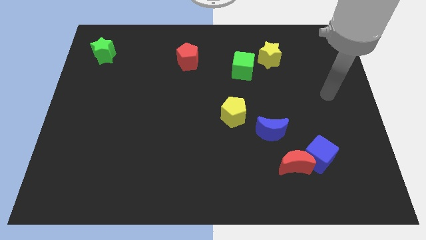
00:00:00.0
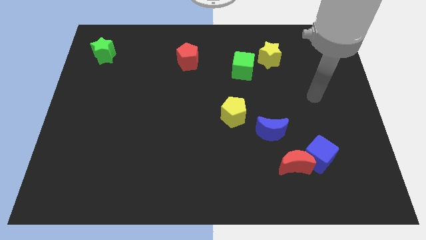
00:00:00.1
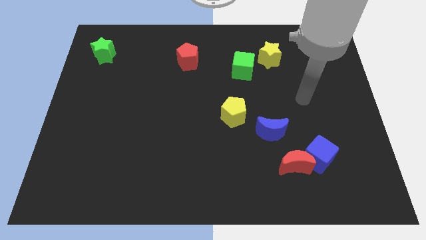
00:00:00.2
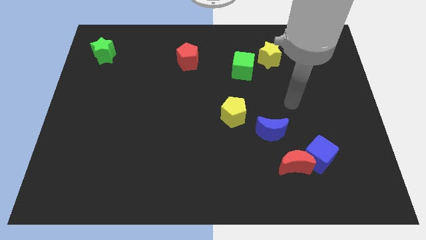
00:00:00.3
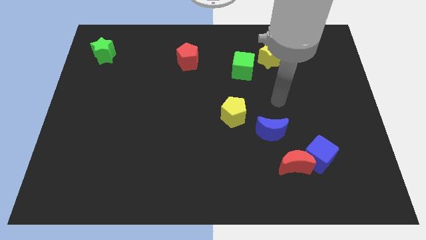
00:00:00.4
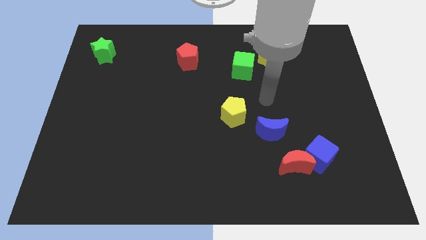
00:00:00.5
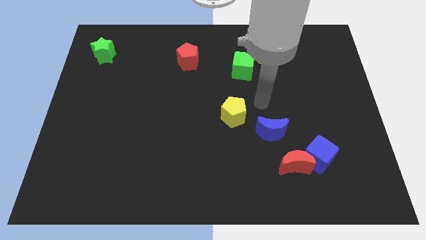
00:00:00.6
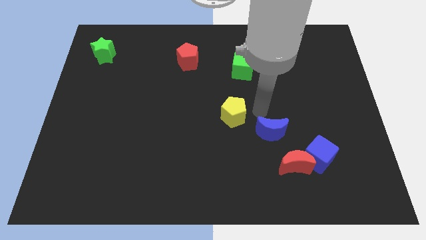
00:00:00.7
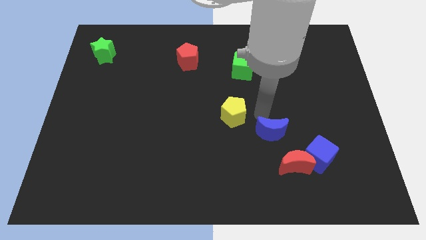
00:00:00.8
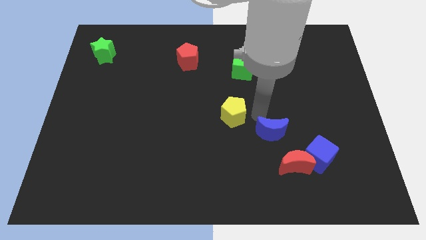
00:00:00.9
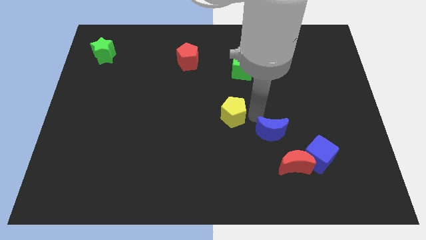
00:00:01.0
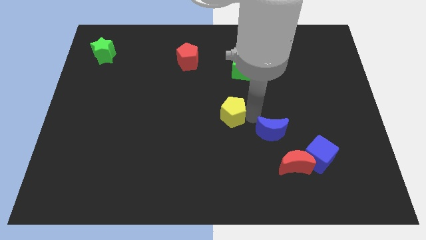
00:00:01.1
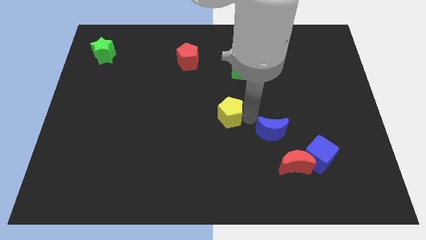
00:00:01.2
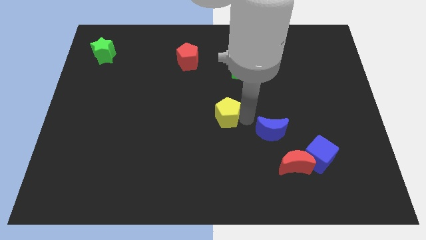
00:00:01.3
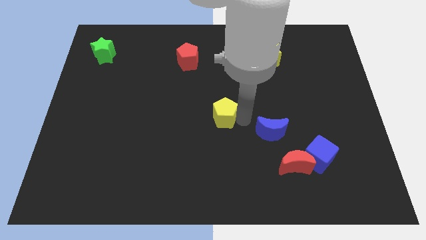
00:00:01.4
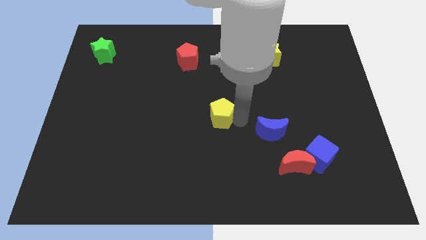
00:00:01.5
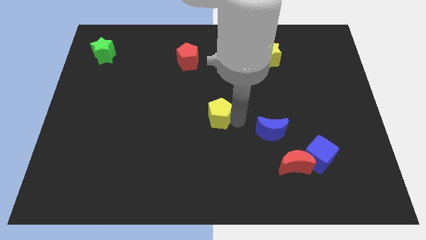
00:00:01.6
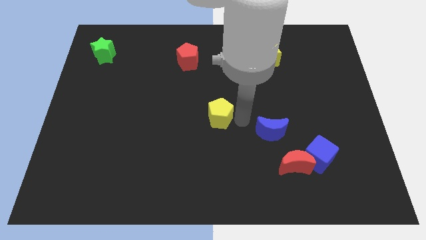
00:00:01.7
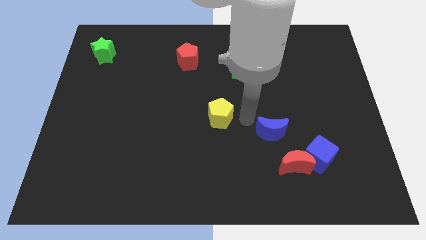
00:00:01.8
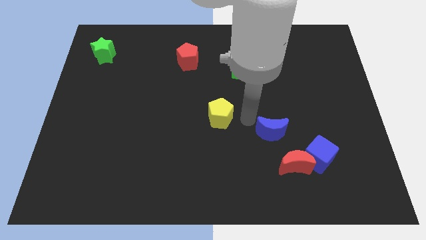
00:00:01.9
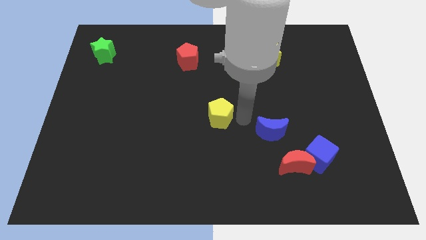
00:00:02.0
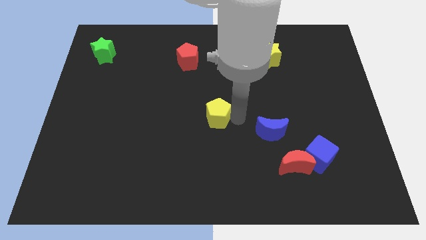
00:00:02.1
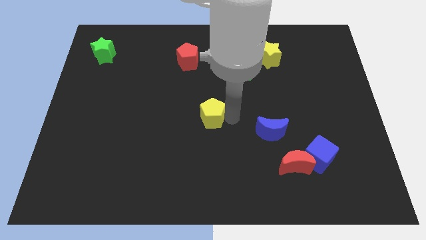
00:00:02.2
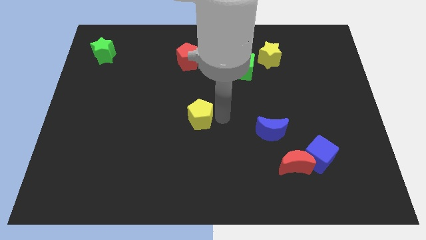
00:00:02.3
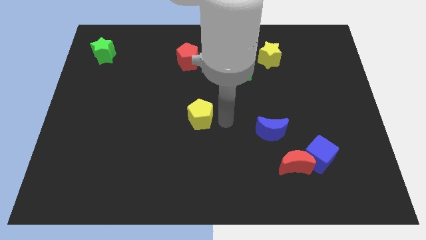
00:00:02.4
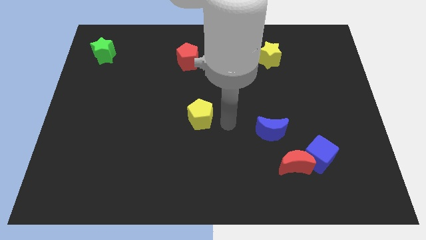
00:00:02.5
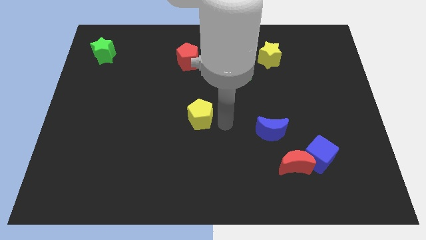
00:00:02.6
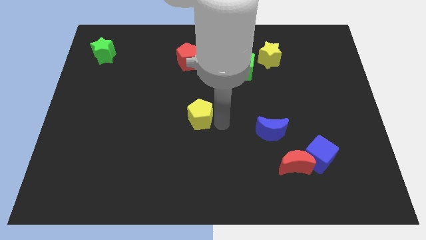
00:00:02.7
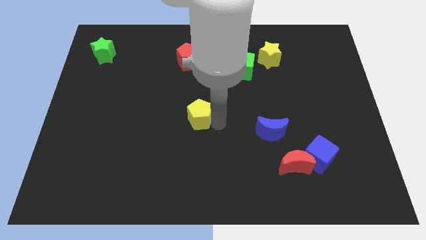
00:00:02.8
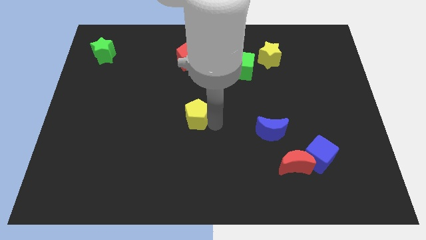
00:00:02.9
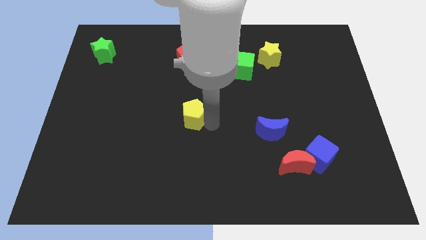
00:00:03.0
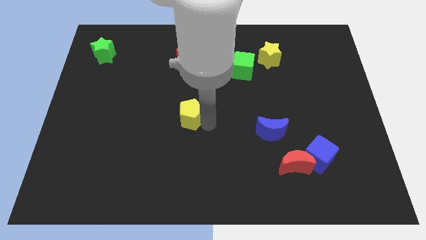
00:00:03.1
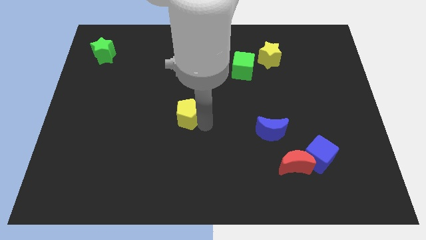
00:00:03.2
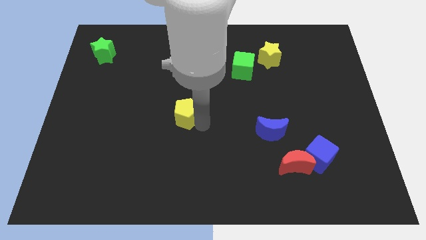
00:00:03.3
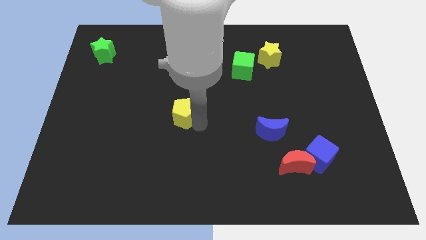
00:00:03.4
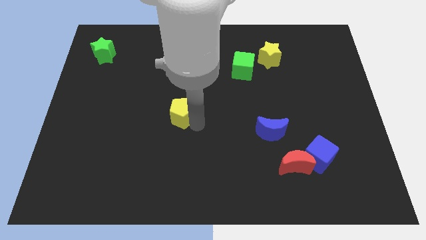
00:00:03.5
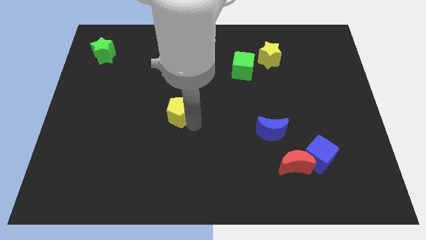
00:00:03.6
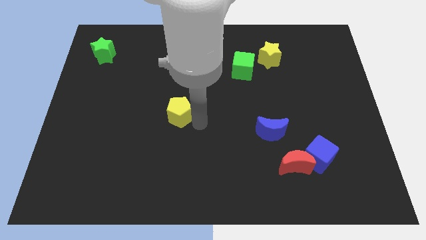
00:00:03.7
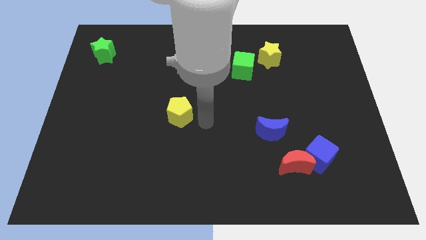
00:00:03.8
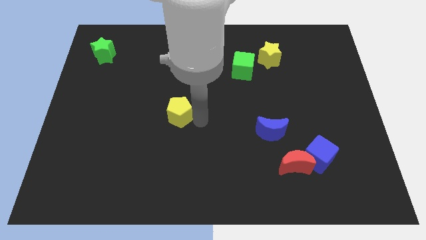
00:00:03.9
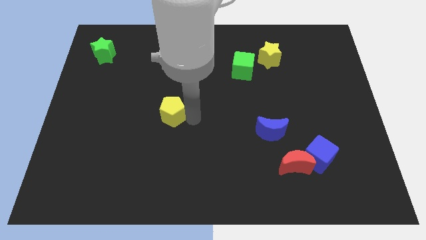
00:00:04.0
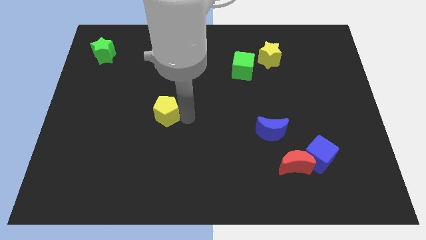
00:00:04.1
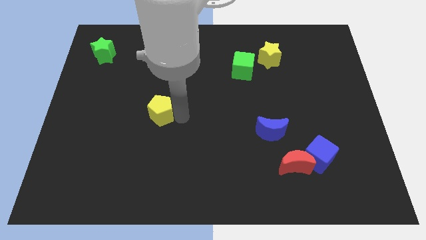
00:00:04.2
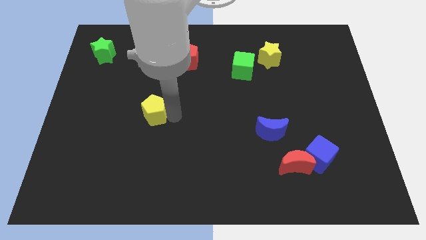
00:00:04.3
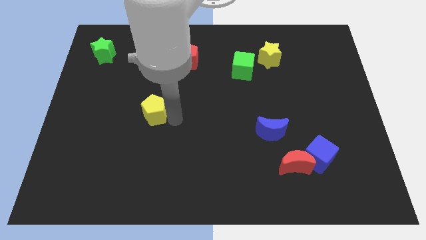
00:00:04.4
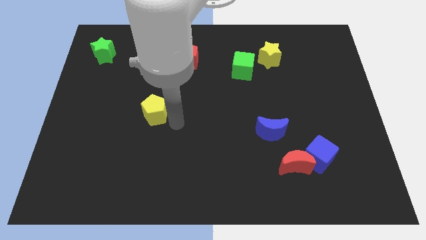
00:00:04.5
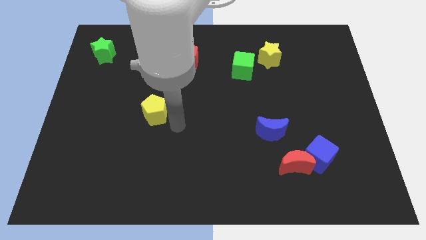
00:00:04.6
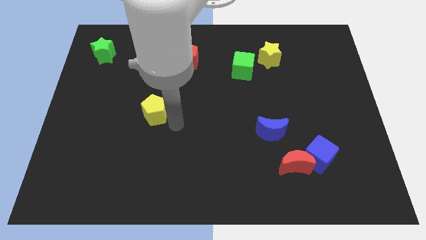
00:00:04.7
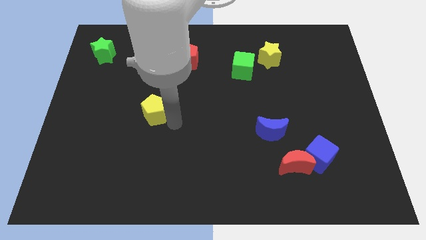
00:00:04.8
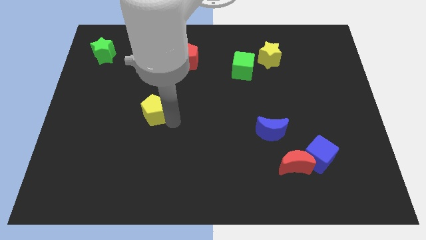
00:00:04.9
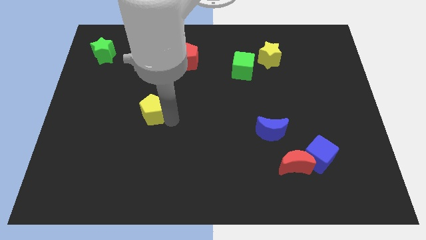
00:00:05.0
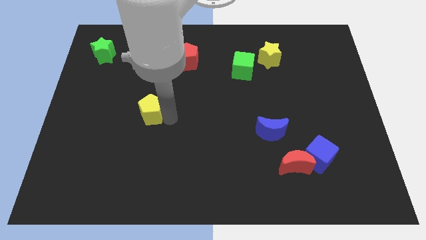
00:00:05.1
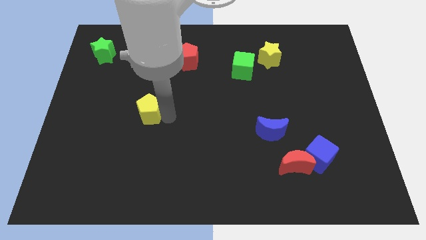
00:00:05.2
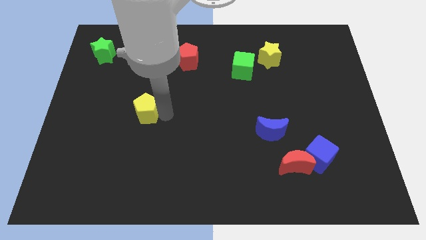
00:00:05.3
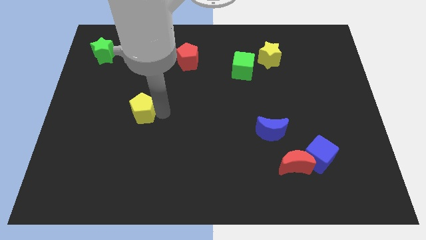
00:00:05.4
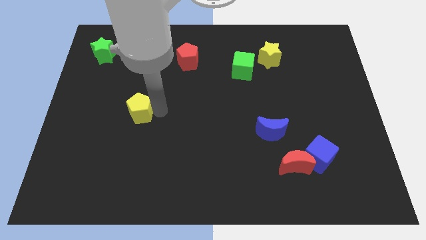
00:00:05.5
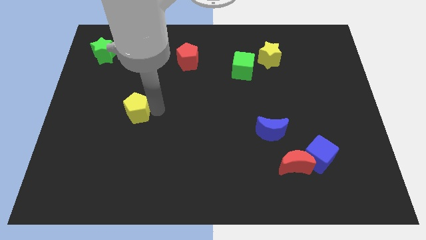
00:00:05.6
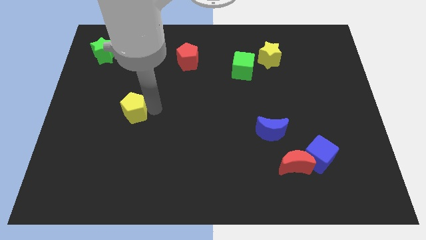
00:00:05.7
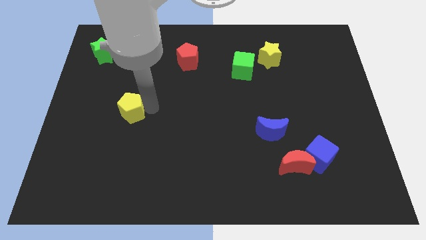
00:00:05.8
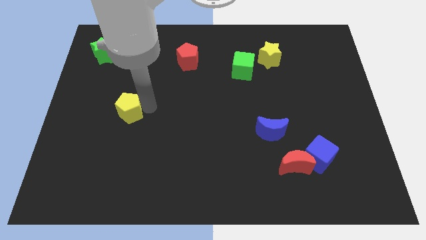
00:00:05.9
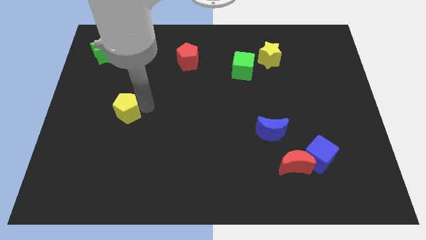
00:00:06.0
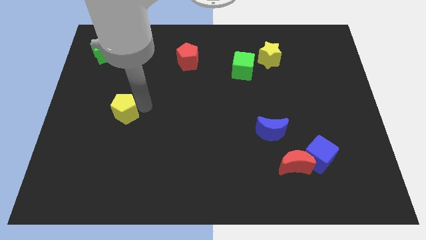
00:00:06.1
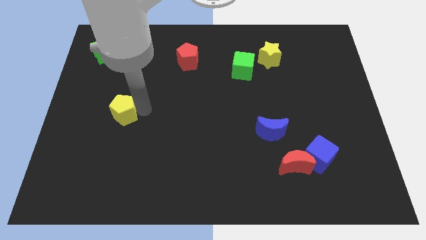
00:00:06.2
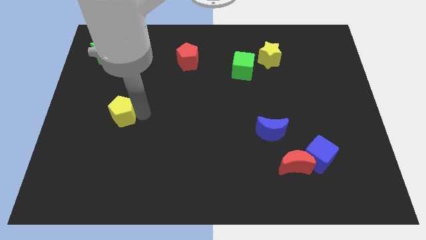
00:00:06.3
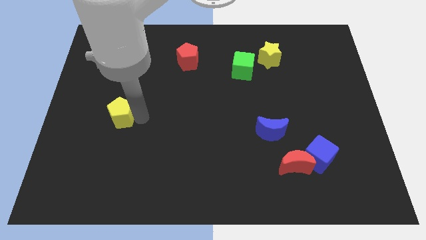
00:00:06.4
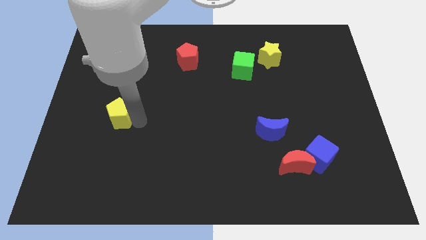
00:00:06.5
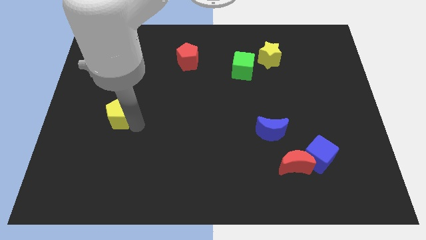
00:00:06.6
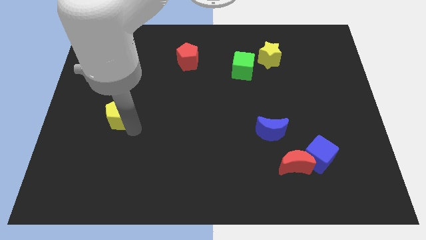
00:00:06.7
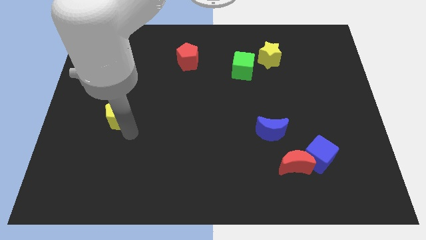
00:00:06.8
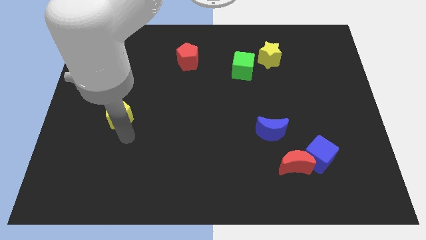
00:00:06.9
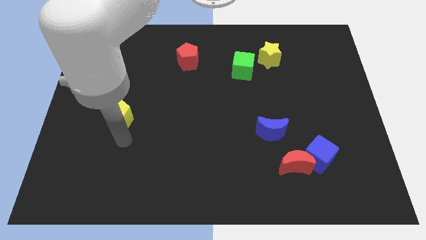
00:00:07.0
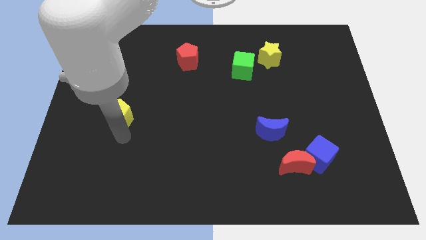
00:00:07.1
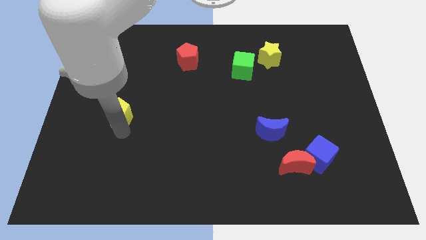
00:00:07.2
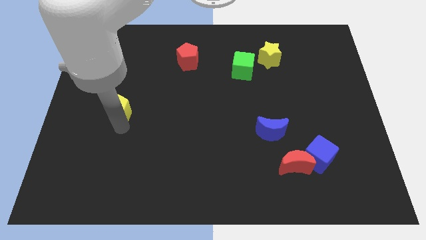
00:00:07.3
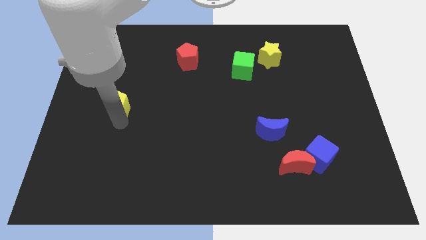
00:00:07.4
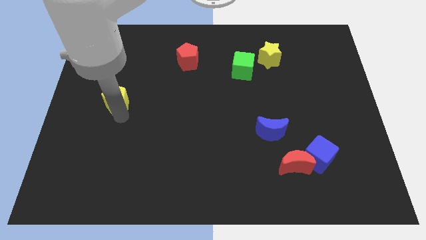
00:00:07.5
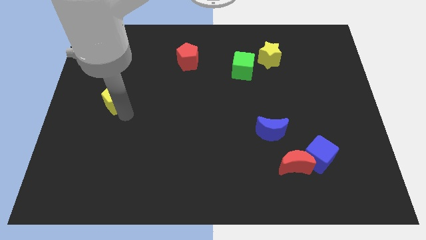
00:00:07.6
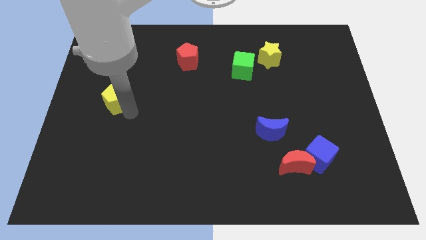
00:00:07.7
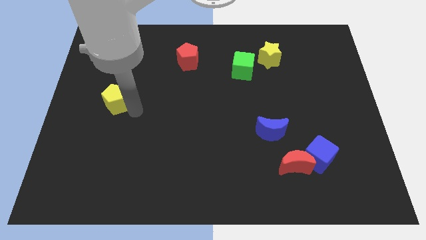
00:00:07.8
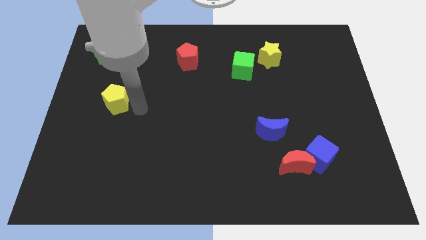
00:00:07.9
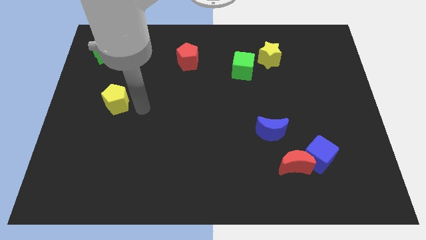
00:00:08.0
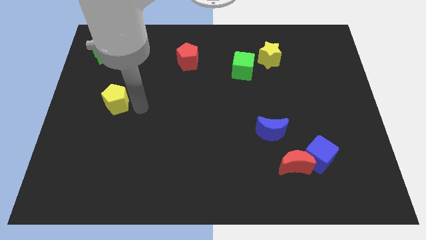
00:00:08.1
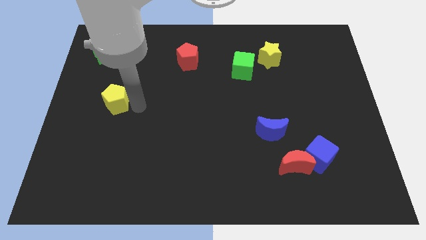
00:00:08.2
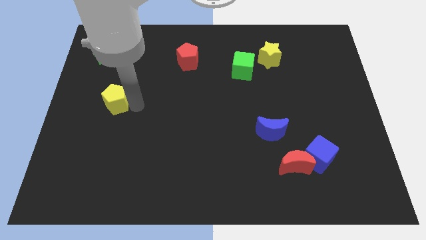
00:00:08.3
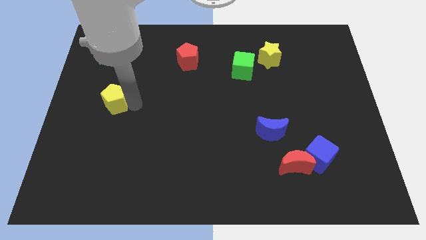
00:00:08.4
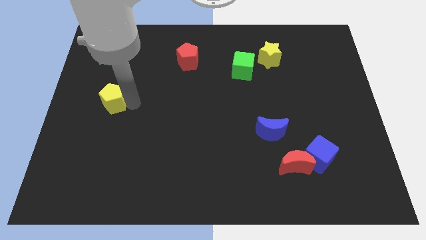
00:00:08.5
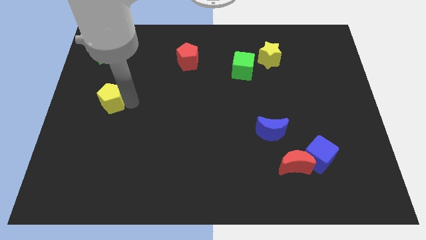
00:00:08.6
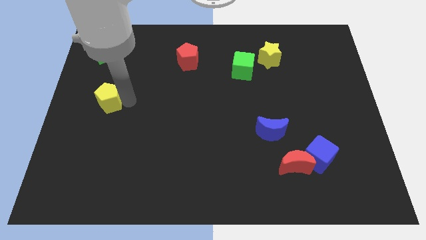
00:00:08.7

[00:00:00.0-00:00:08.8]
slide the yellow pentagon to the center left
